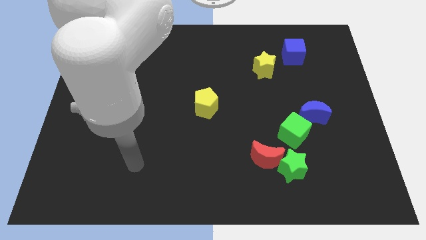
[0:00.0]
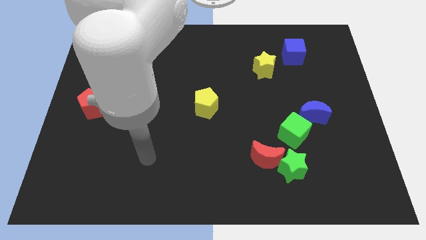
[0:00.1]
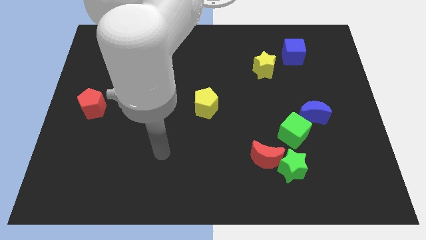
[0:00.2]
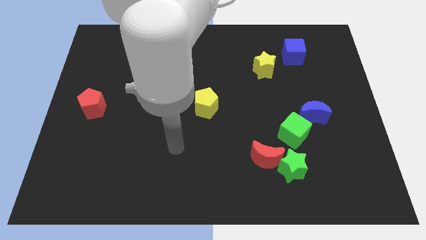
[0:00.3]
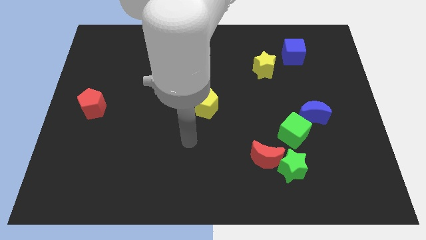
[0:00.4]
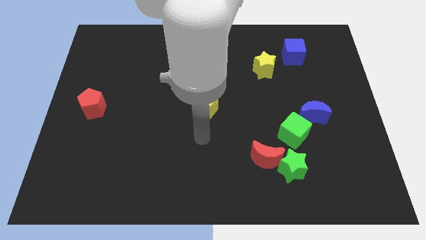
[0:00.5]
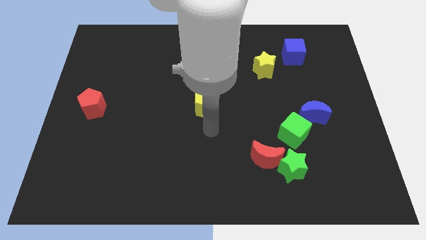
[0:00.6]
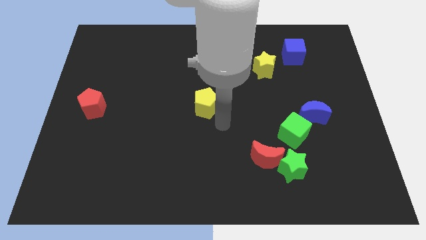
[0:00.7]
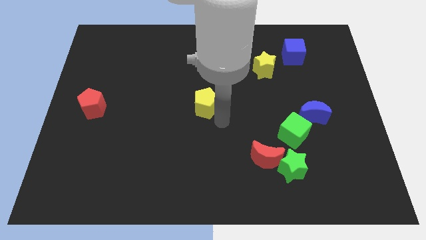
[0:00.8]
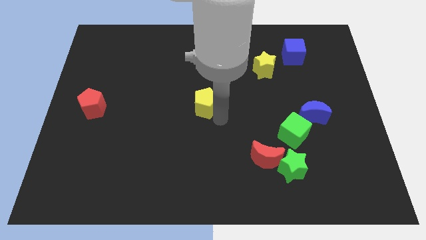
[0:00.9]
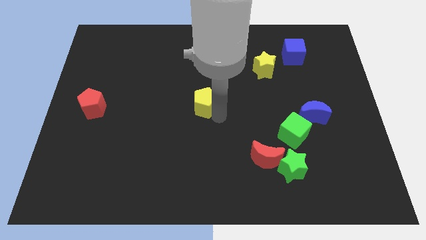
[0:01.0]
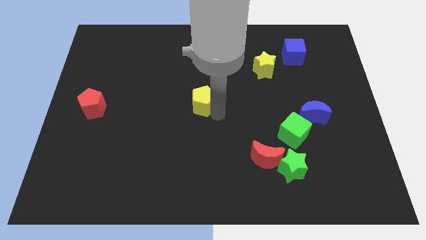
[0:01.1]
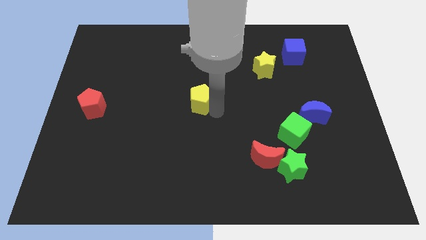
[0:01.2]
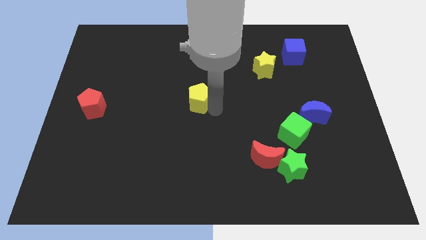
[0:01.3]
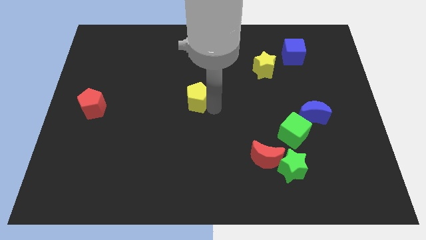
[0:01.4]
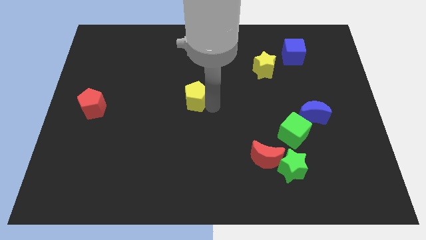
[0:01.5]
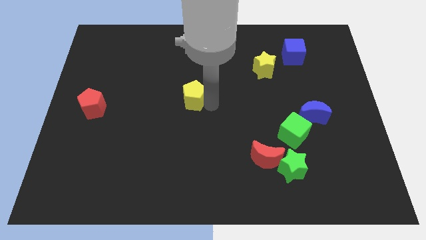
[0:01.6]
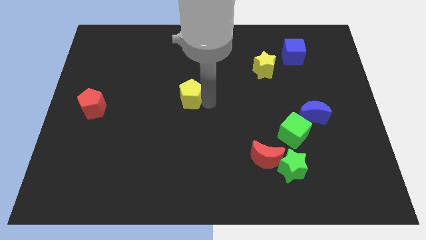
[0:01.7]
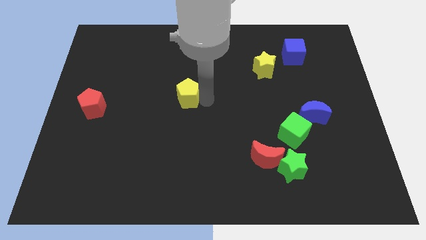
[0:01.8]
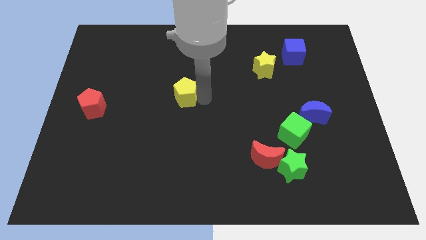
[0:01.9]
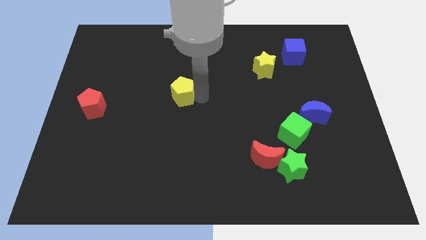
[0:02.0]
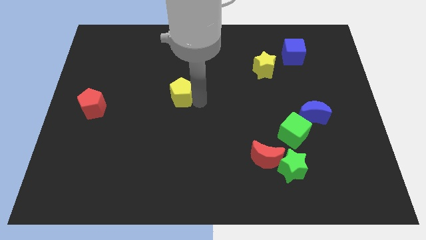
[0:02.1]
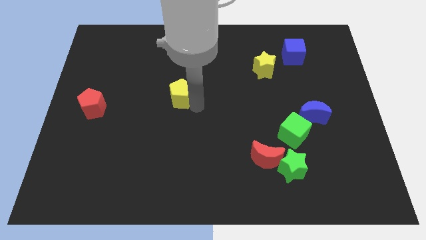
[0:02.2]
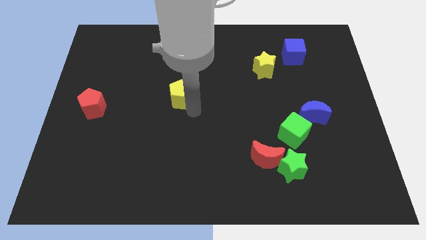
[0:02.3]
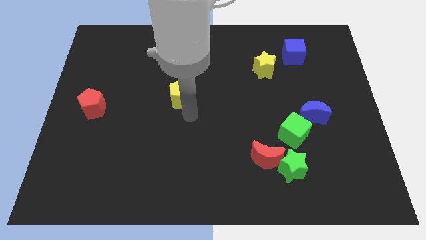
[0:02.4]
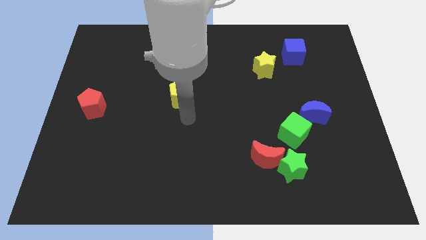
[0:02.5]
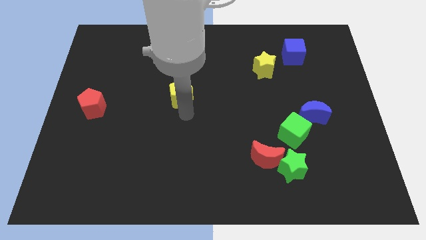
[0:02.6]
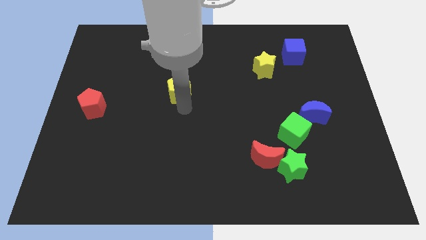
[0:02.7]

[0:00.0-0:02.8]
push the yellow pentagon a little bit upwards and to the left diagonally

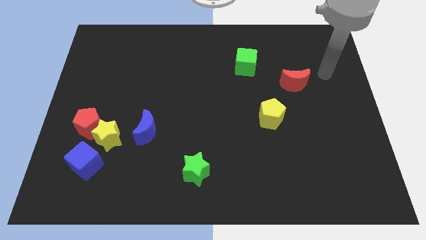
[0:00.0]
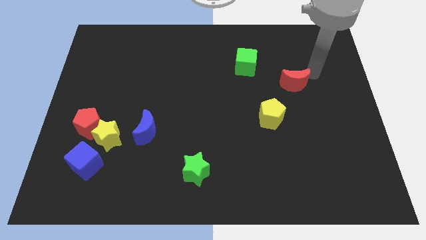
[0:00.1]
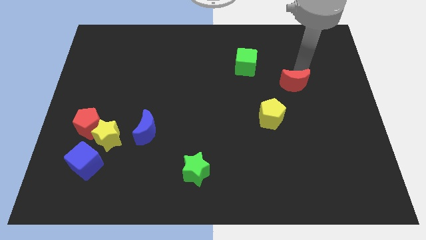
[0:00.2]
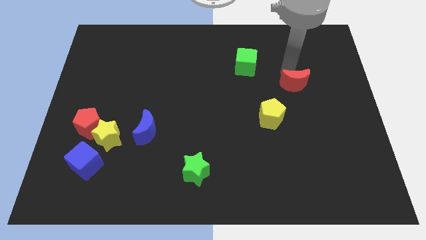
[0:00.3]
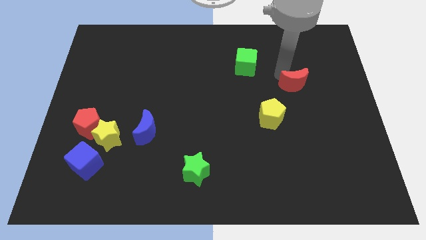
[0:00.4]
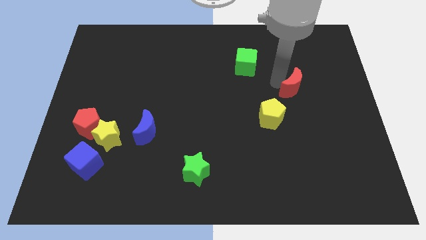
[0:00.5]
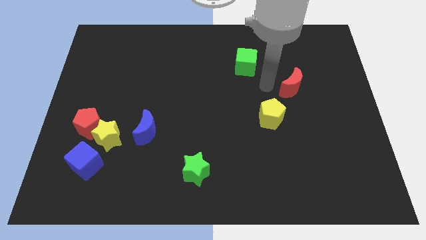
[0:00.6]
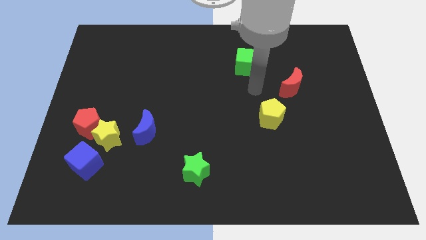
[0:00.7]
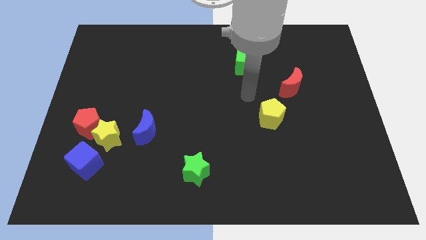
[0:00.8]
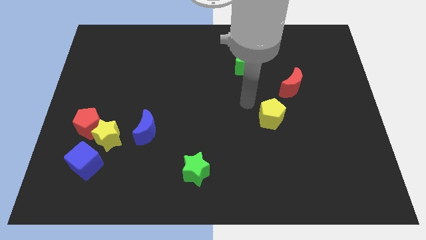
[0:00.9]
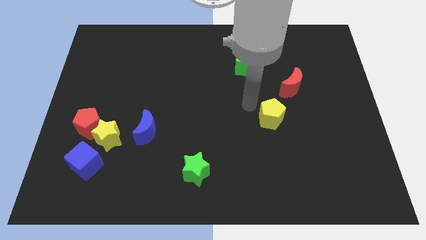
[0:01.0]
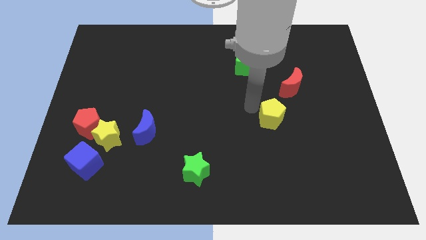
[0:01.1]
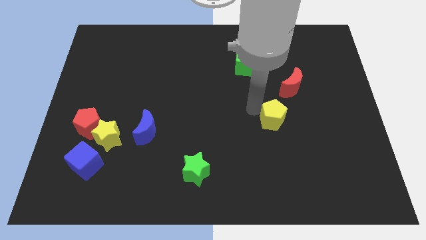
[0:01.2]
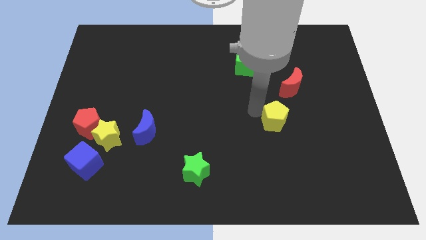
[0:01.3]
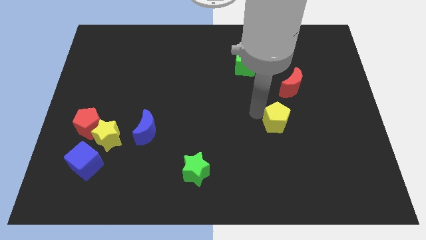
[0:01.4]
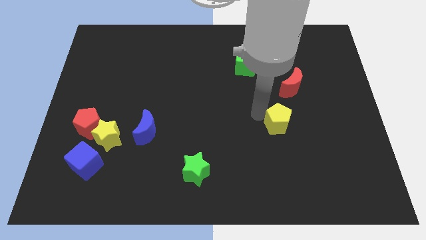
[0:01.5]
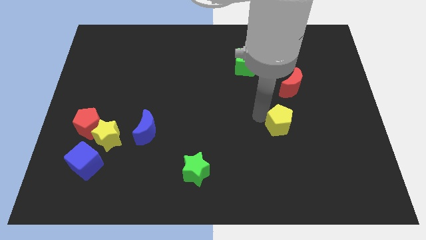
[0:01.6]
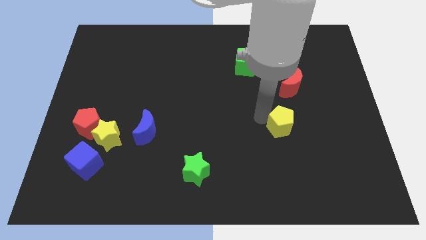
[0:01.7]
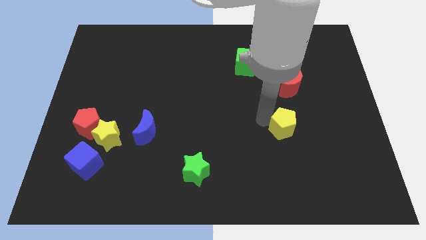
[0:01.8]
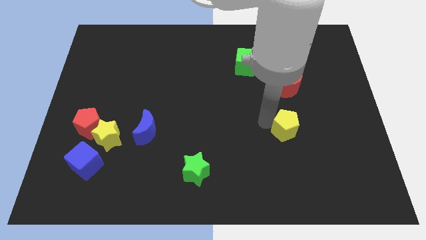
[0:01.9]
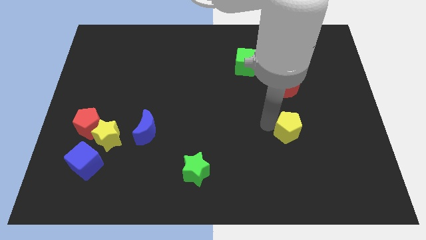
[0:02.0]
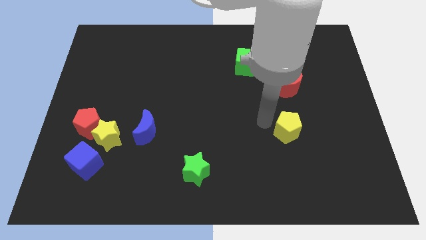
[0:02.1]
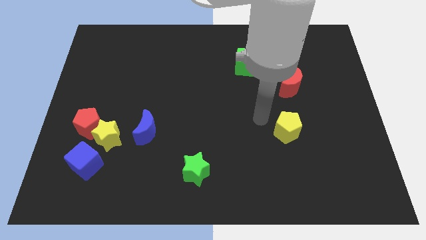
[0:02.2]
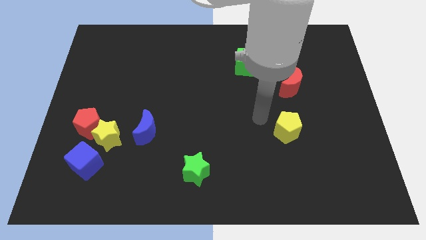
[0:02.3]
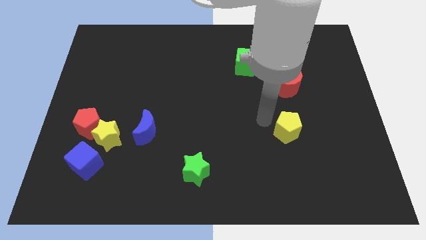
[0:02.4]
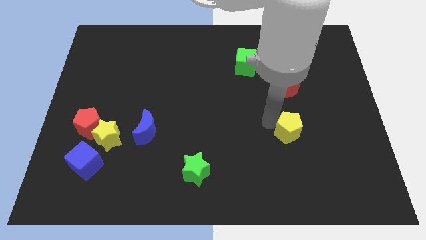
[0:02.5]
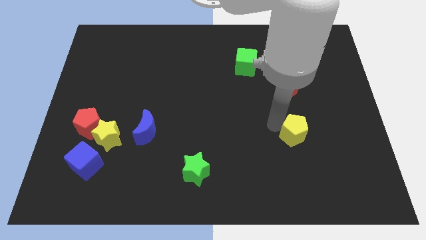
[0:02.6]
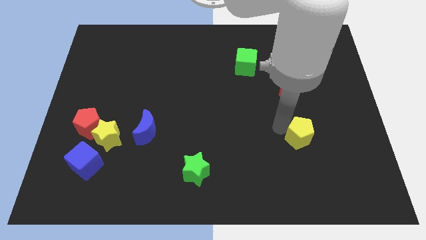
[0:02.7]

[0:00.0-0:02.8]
move the yellow pentagon a bit diagonally downwards and to the right

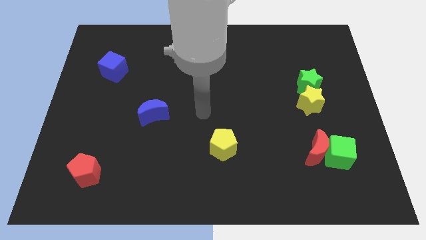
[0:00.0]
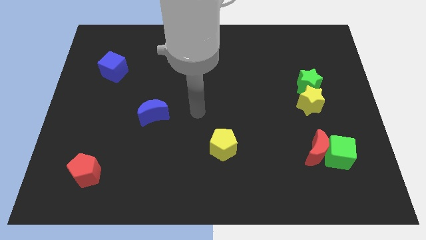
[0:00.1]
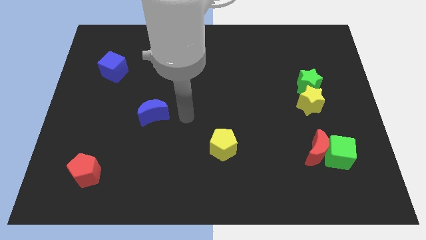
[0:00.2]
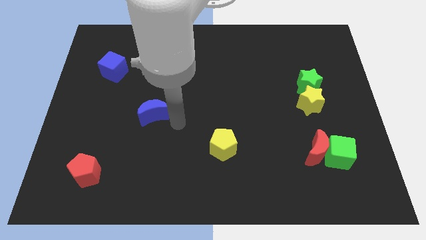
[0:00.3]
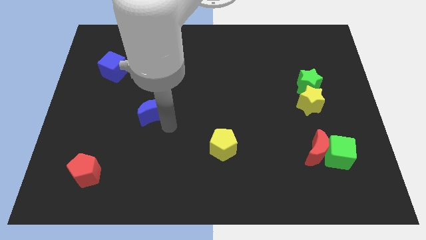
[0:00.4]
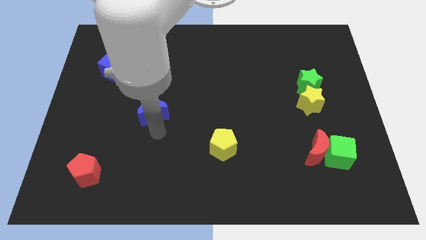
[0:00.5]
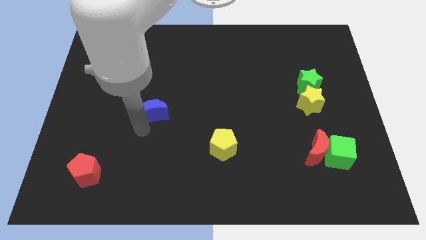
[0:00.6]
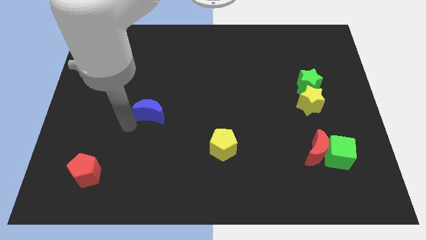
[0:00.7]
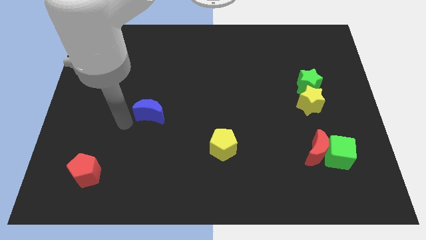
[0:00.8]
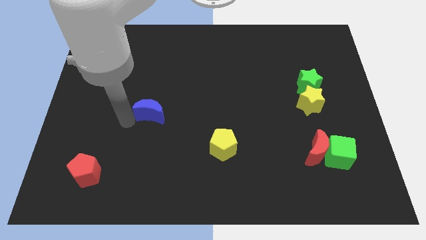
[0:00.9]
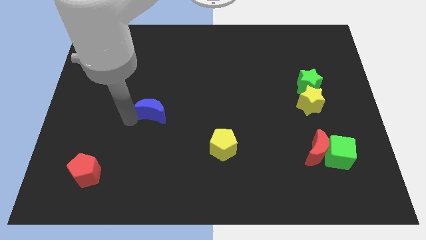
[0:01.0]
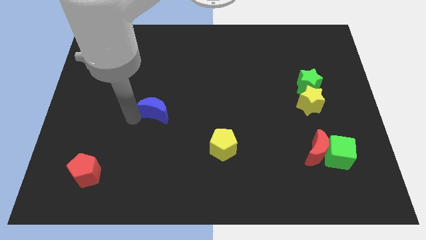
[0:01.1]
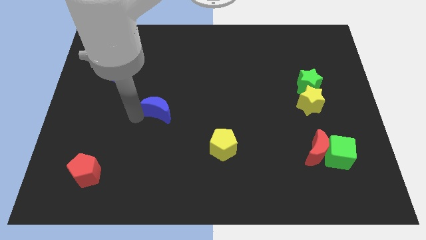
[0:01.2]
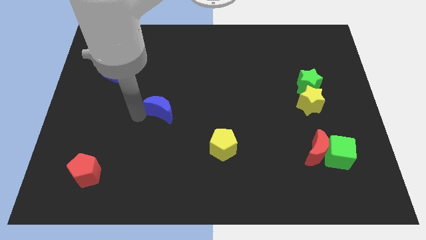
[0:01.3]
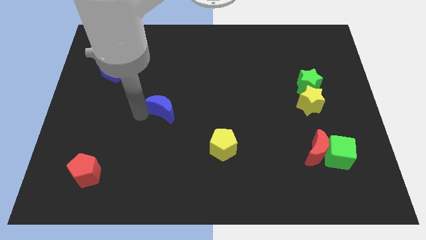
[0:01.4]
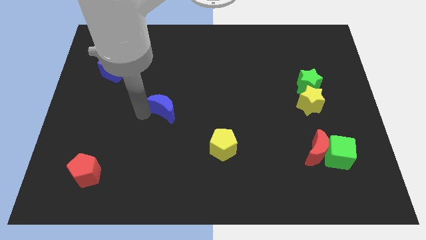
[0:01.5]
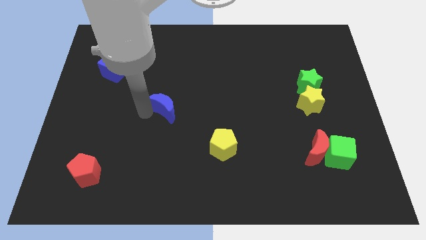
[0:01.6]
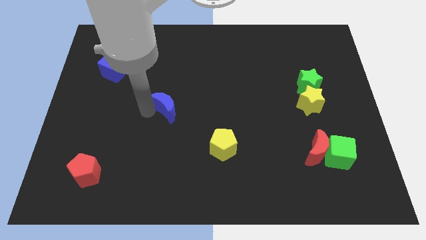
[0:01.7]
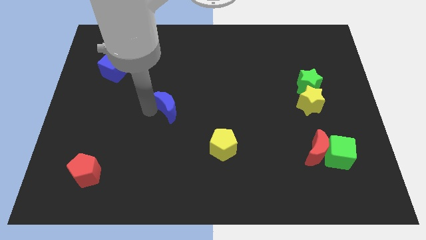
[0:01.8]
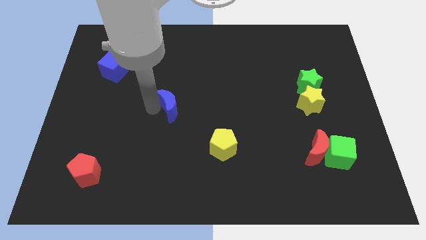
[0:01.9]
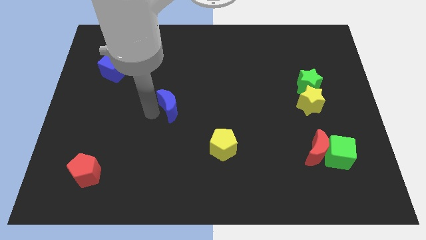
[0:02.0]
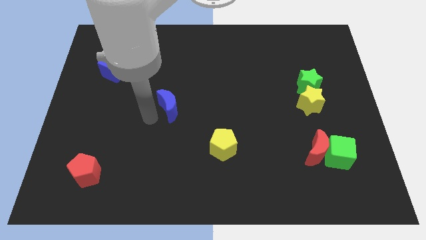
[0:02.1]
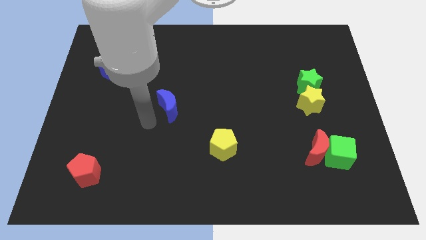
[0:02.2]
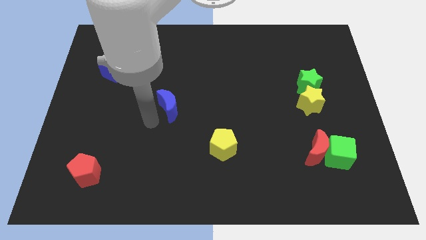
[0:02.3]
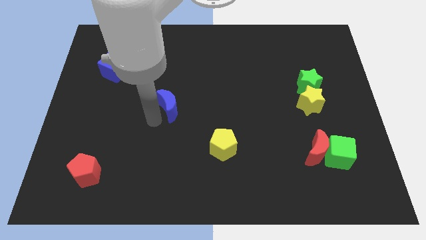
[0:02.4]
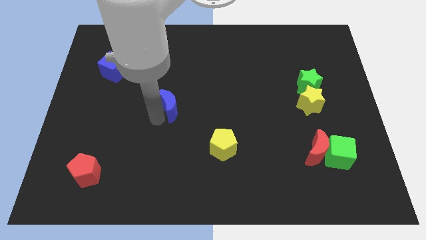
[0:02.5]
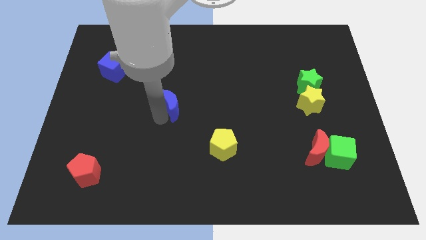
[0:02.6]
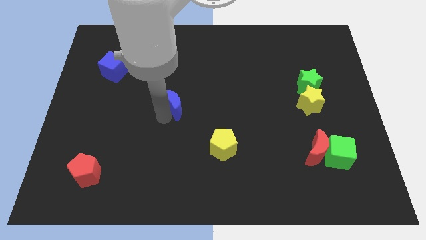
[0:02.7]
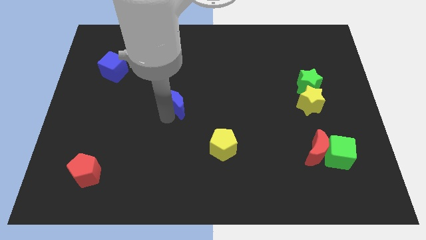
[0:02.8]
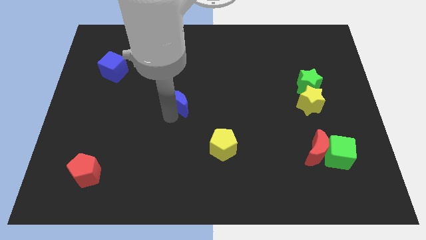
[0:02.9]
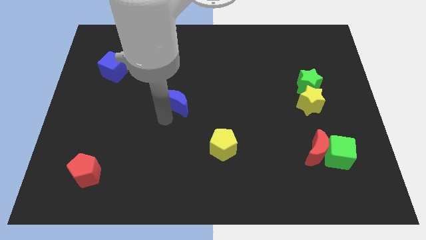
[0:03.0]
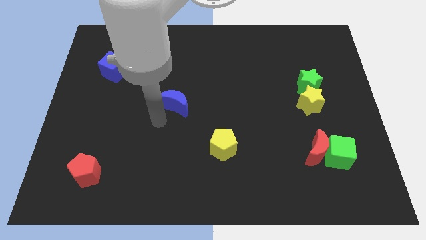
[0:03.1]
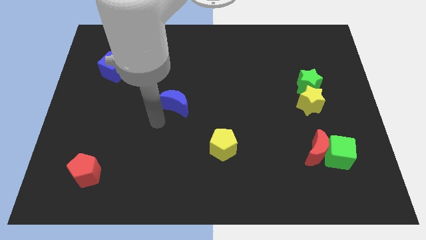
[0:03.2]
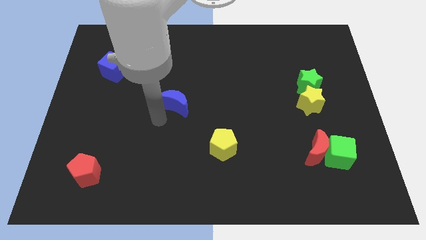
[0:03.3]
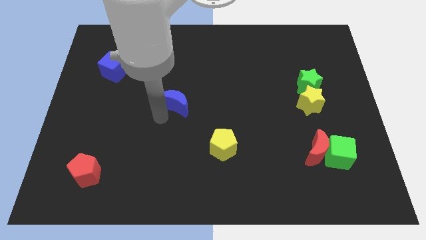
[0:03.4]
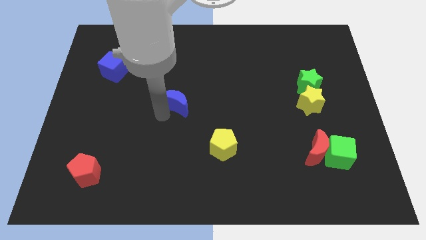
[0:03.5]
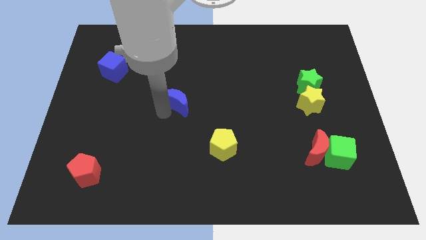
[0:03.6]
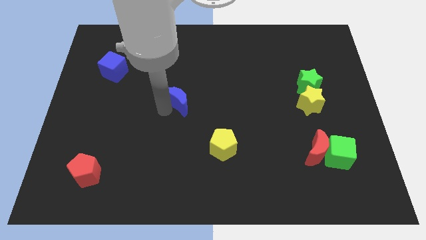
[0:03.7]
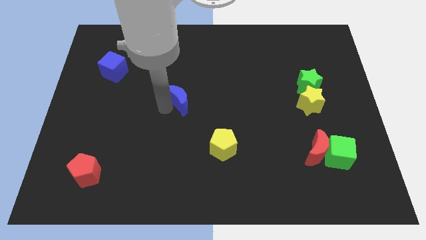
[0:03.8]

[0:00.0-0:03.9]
slightly push the blue moon upwards and right diagonally
